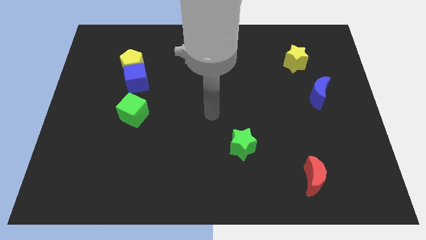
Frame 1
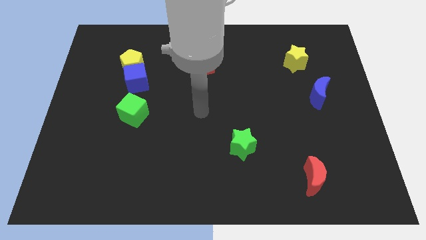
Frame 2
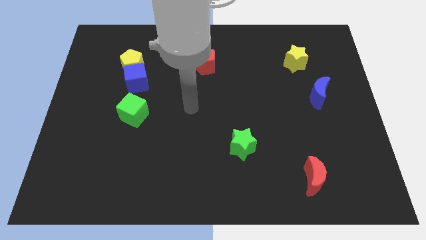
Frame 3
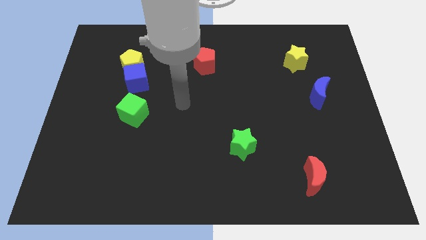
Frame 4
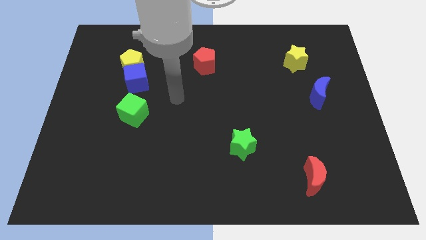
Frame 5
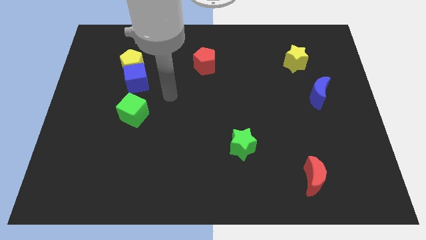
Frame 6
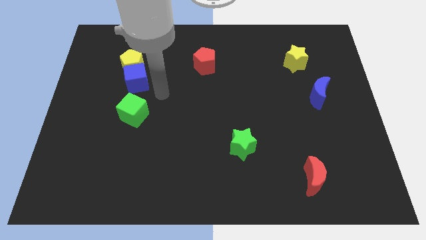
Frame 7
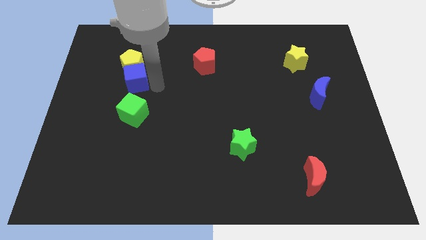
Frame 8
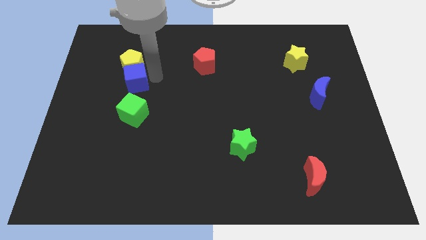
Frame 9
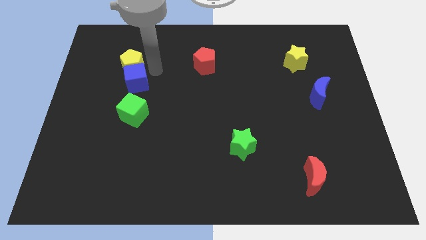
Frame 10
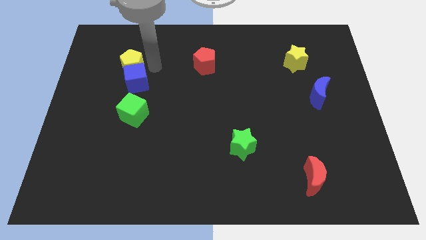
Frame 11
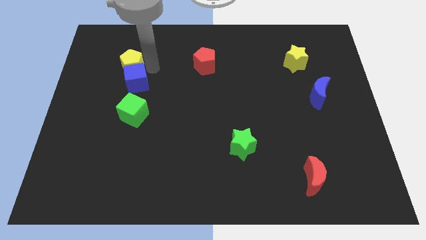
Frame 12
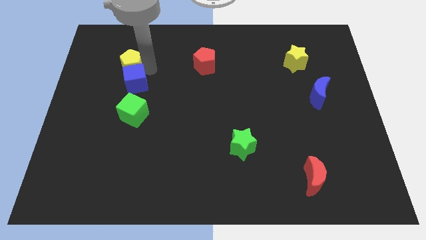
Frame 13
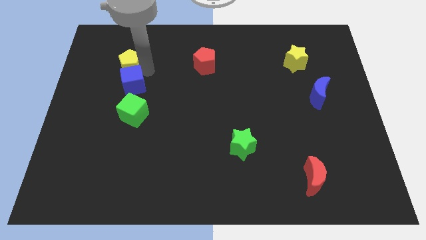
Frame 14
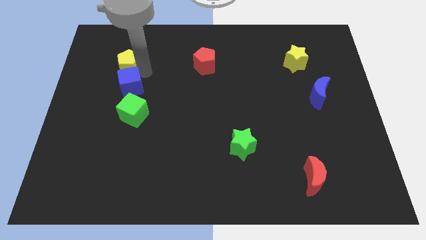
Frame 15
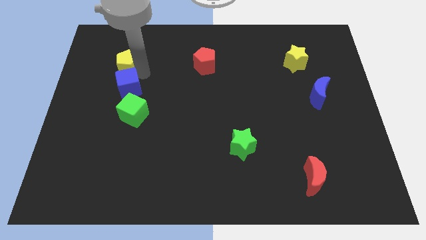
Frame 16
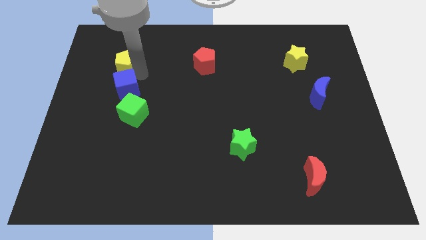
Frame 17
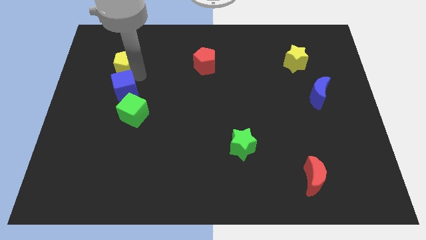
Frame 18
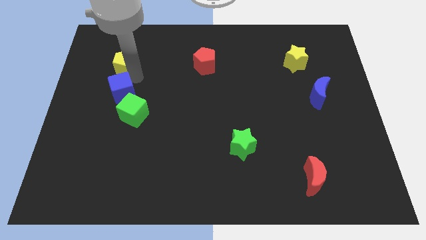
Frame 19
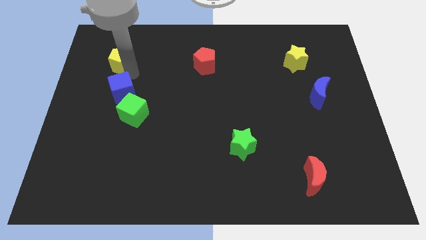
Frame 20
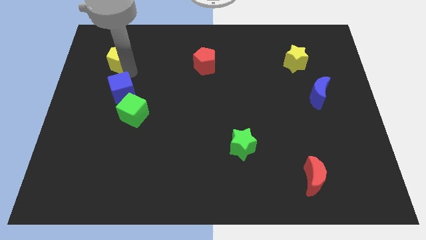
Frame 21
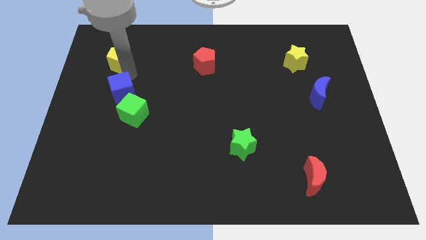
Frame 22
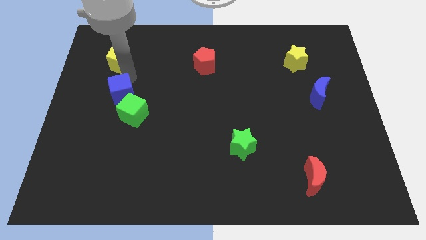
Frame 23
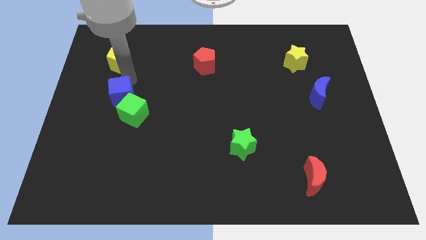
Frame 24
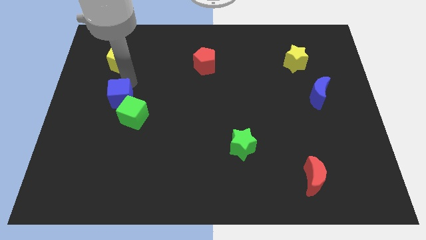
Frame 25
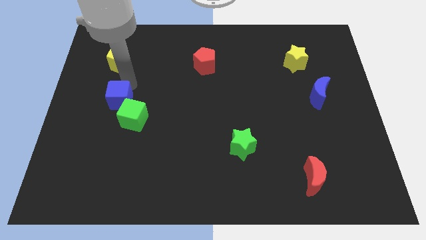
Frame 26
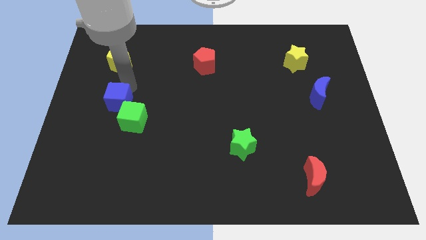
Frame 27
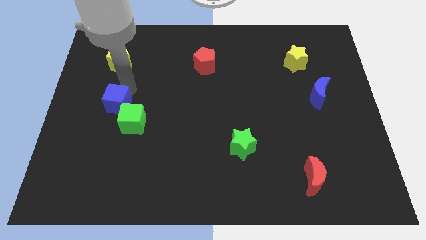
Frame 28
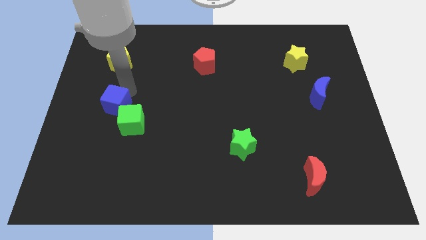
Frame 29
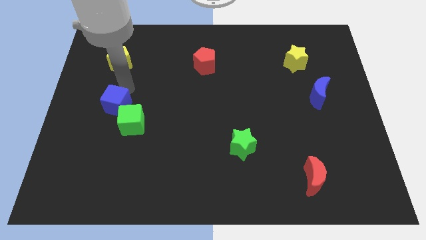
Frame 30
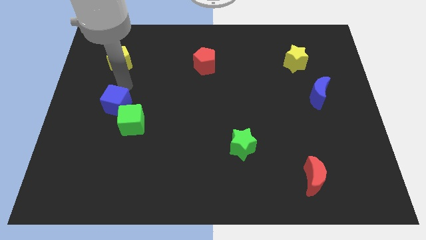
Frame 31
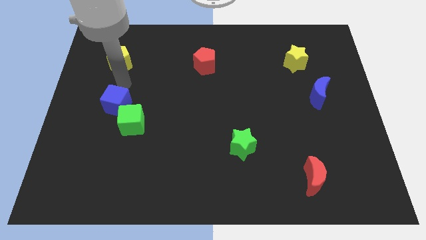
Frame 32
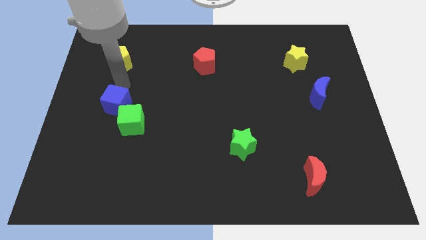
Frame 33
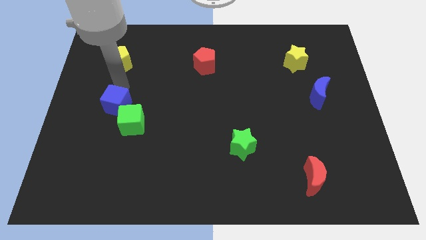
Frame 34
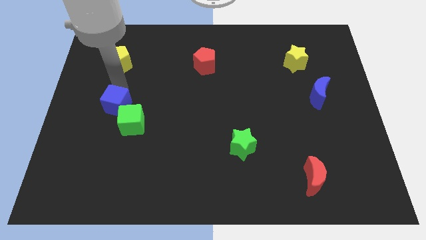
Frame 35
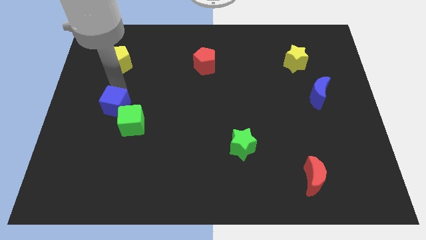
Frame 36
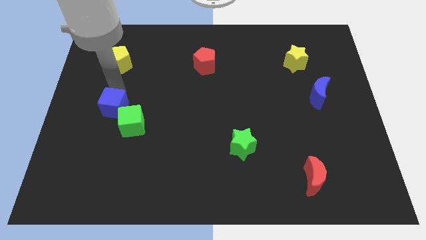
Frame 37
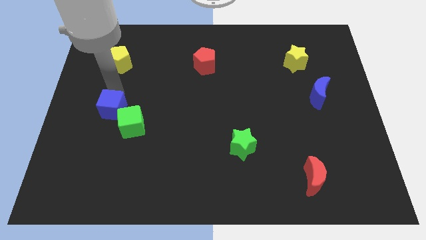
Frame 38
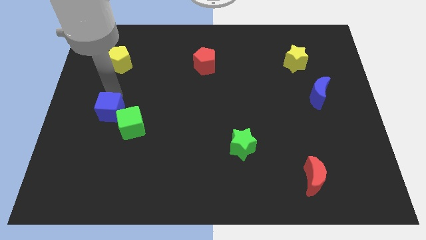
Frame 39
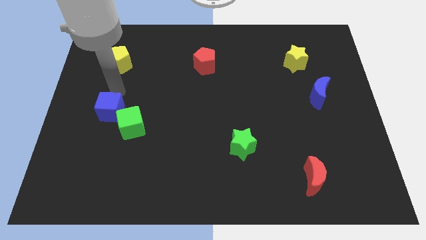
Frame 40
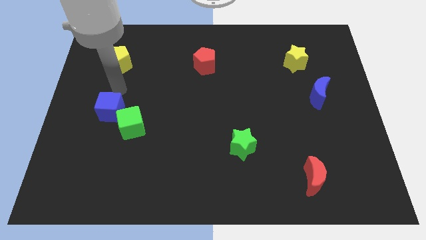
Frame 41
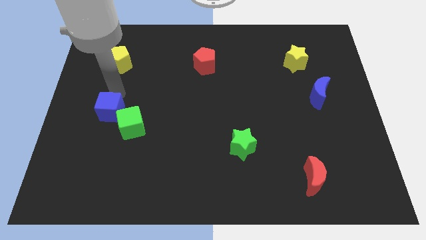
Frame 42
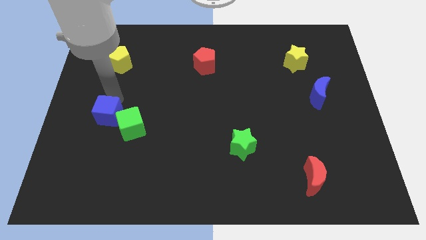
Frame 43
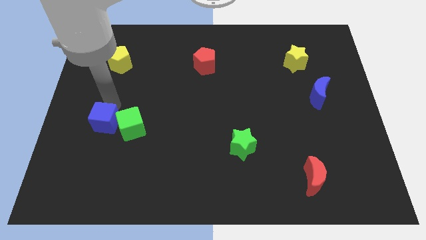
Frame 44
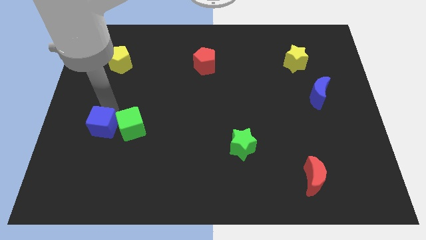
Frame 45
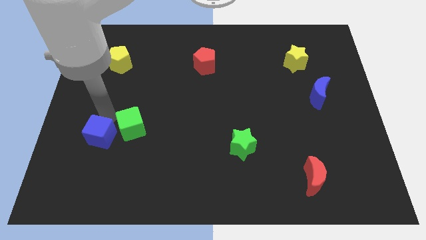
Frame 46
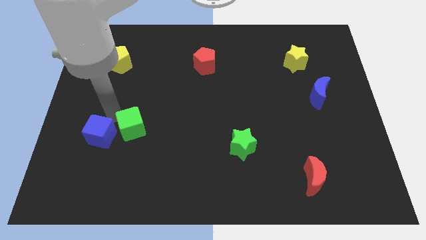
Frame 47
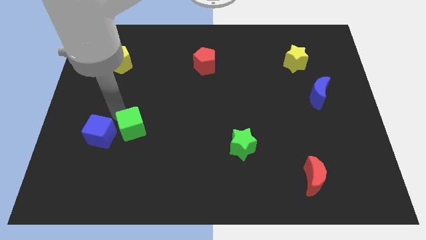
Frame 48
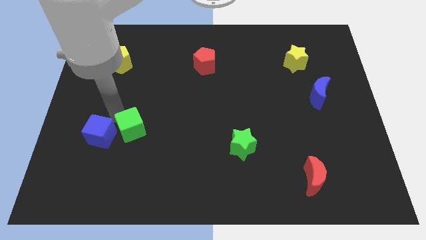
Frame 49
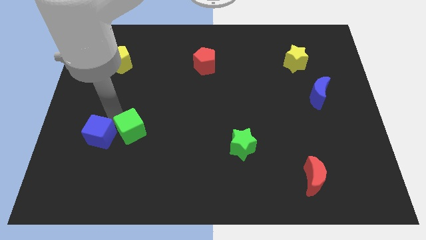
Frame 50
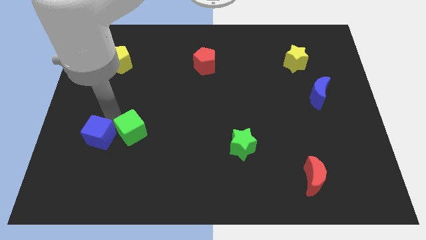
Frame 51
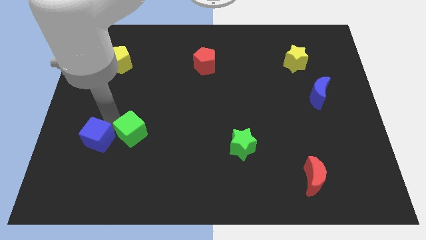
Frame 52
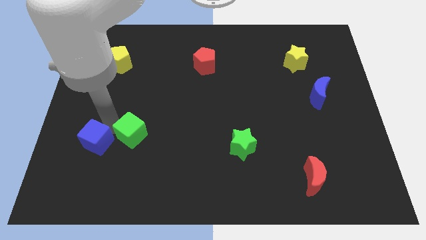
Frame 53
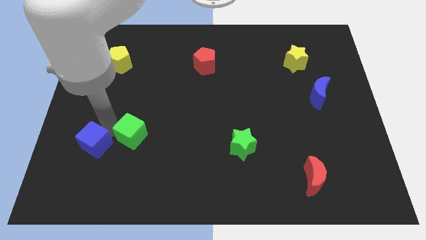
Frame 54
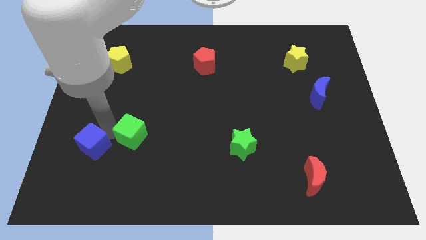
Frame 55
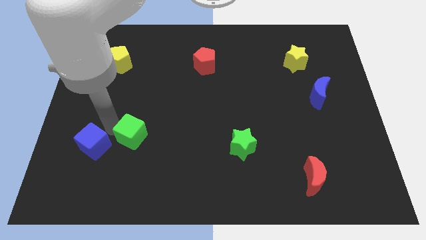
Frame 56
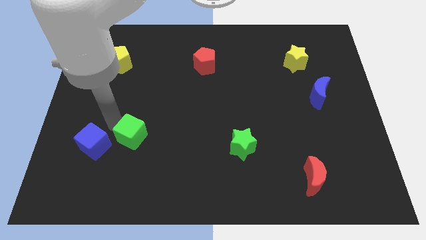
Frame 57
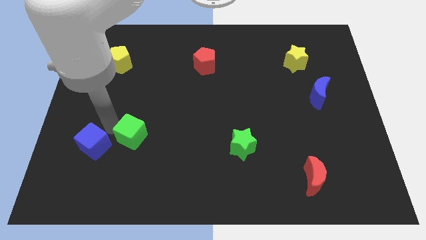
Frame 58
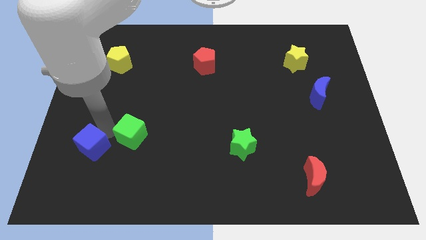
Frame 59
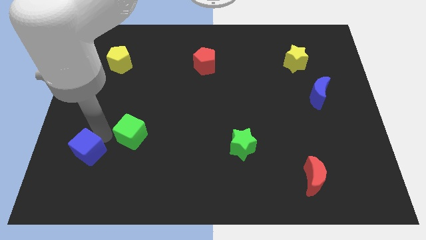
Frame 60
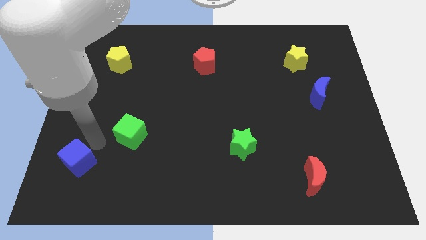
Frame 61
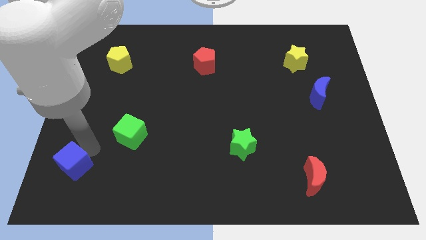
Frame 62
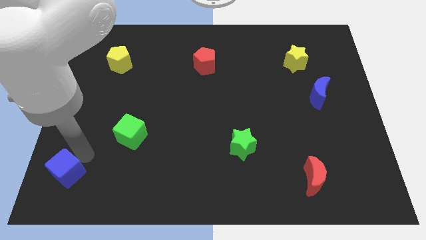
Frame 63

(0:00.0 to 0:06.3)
move the blue cube to the lower left corner

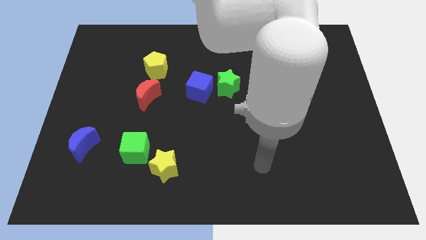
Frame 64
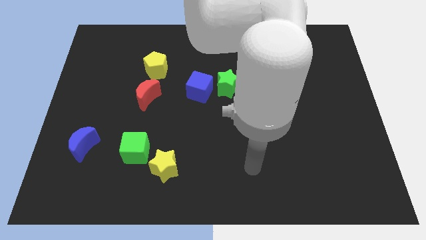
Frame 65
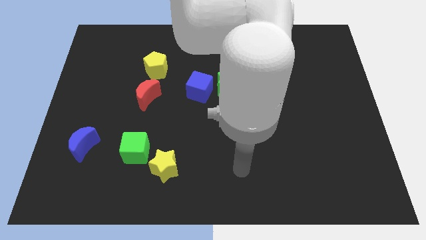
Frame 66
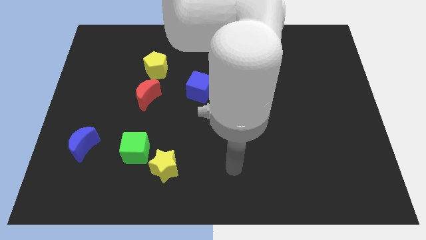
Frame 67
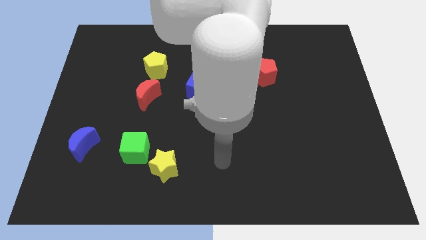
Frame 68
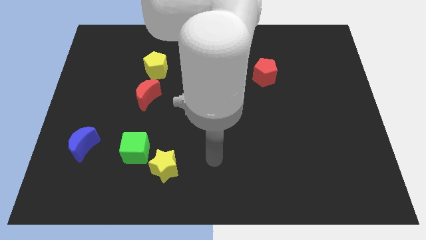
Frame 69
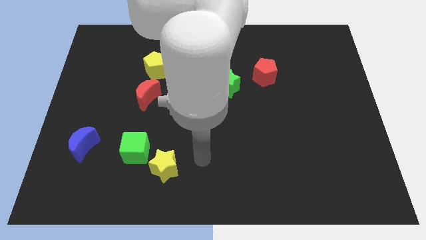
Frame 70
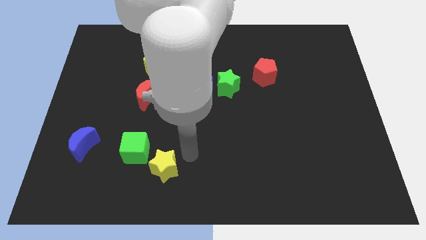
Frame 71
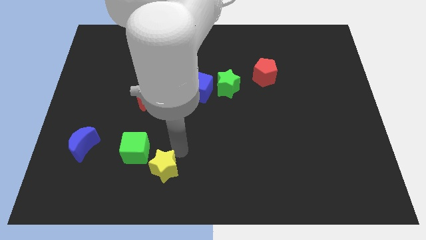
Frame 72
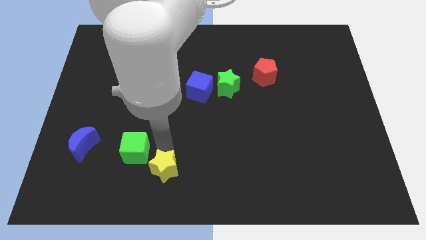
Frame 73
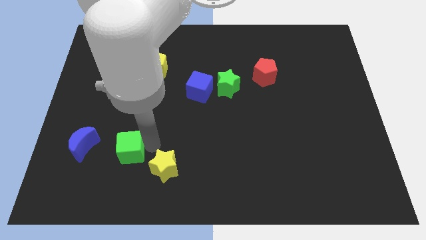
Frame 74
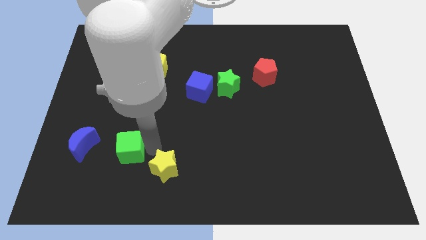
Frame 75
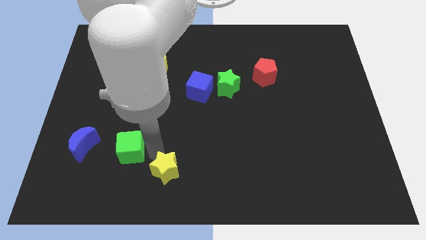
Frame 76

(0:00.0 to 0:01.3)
put the yellow star to the bottom side
